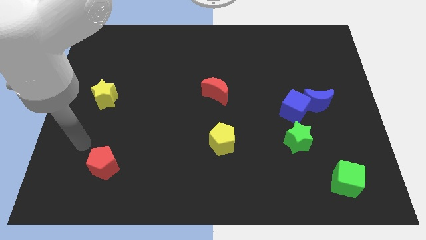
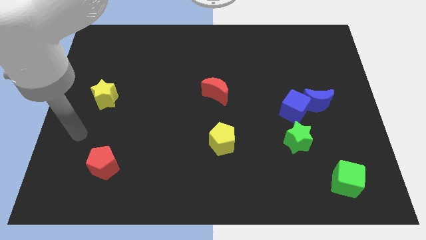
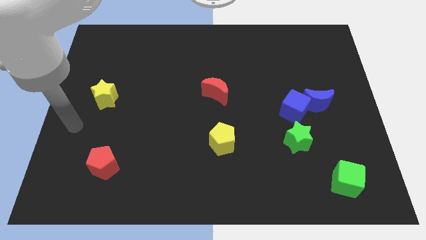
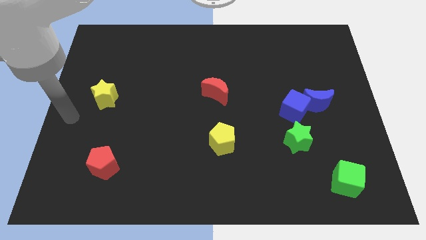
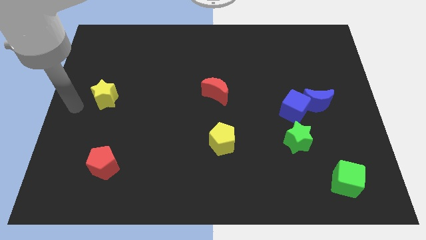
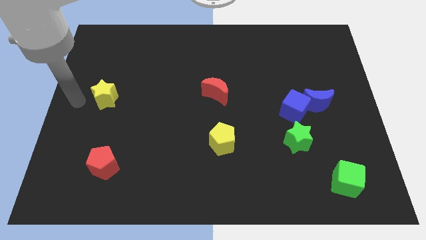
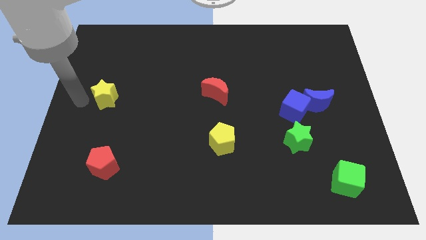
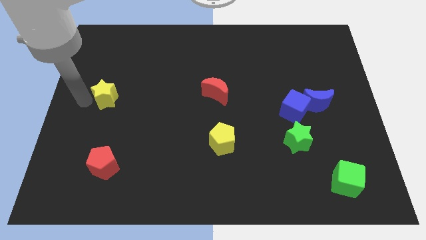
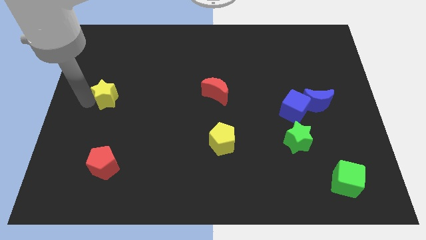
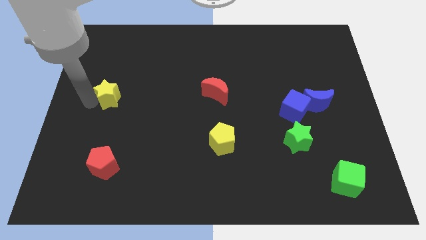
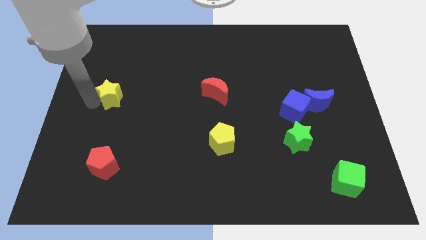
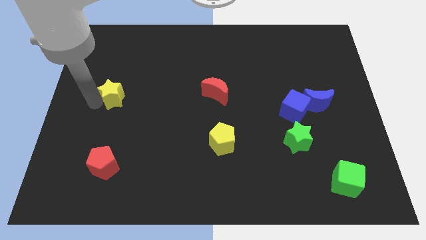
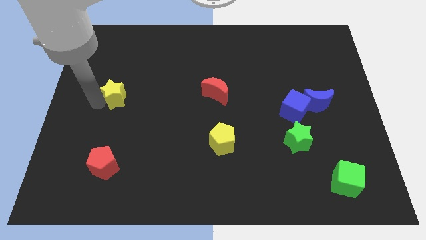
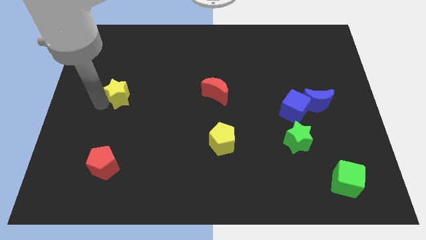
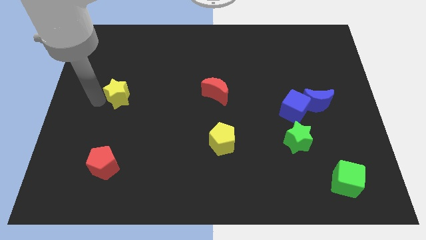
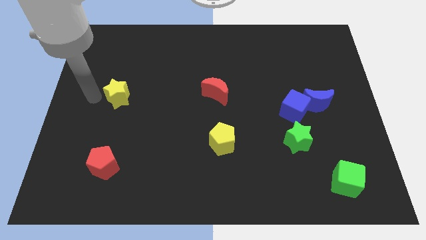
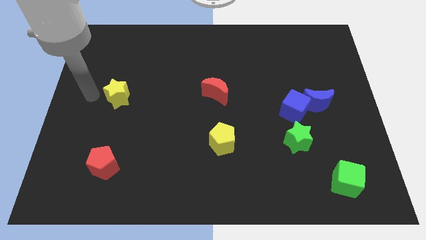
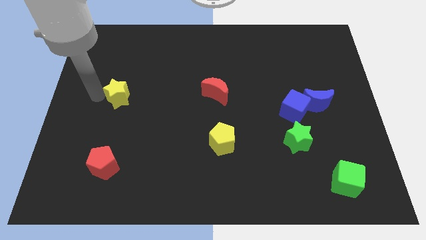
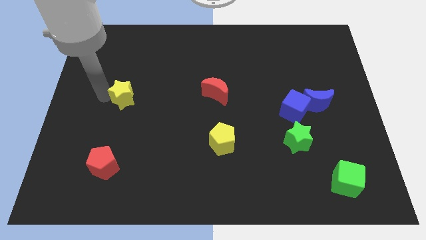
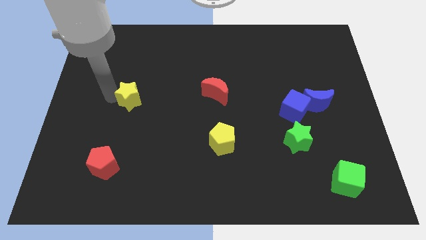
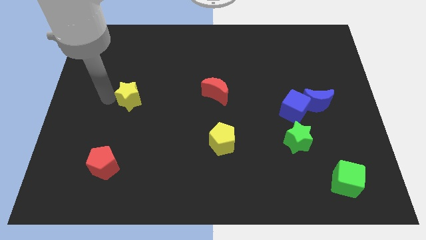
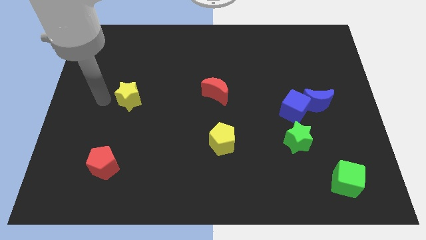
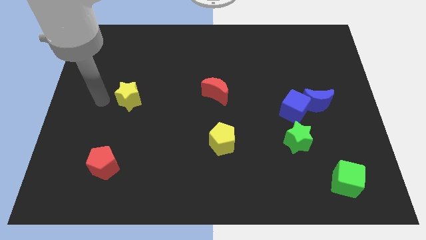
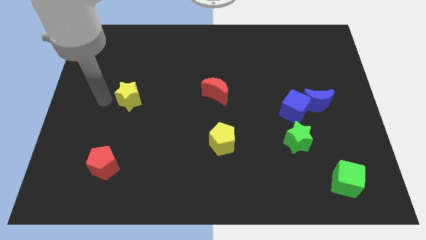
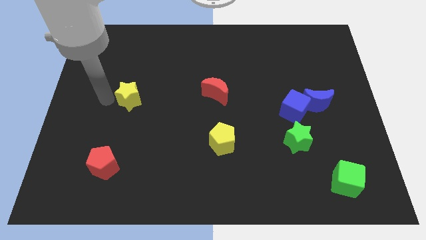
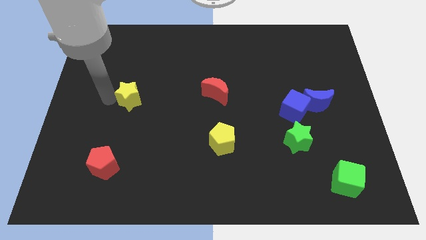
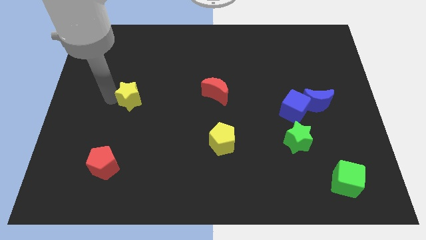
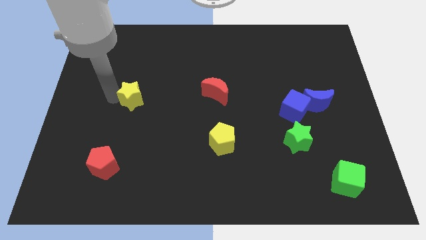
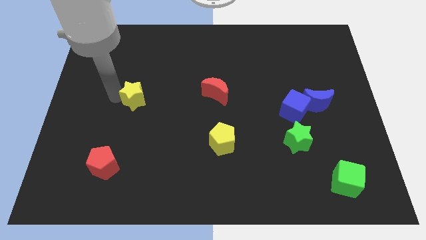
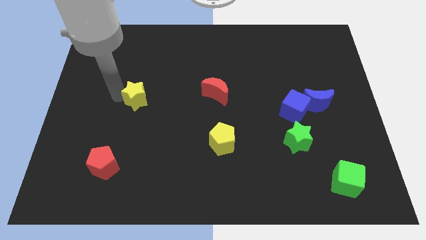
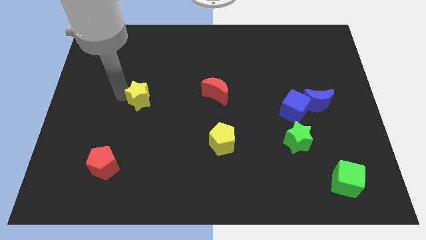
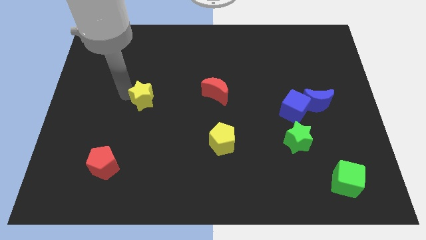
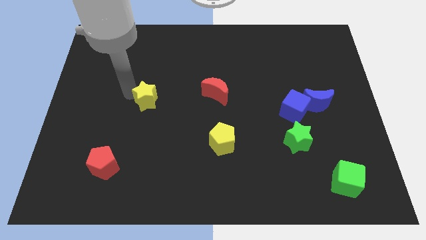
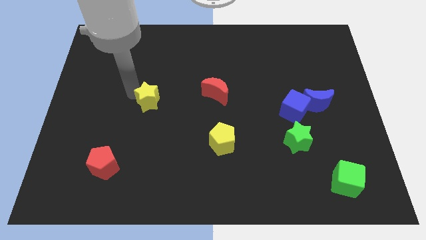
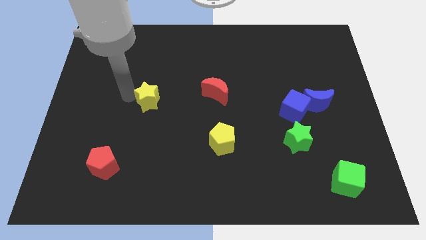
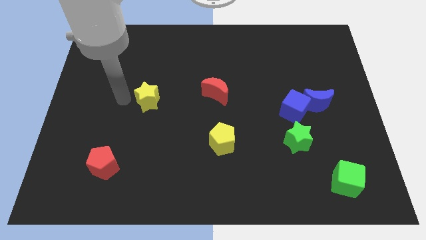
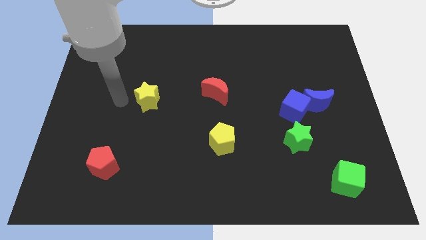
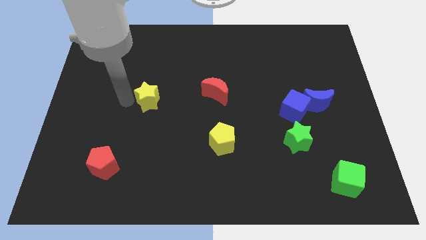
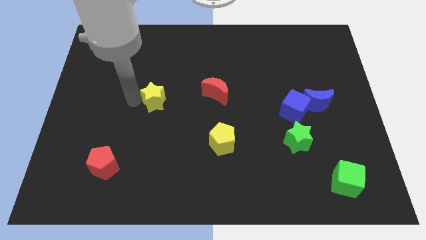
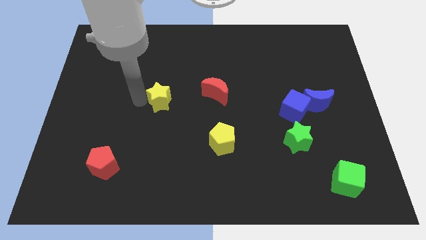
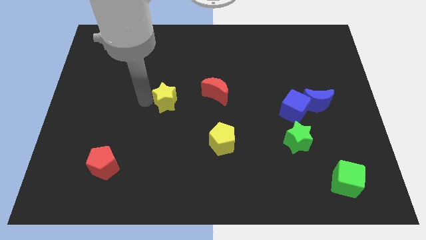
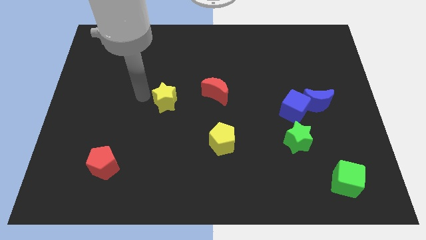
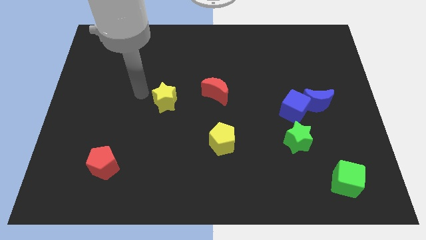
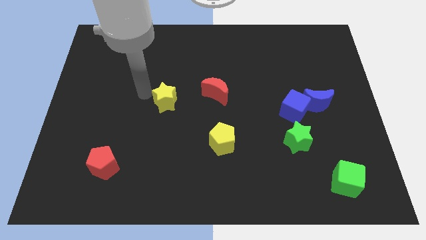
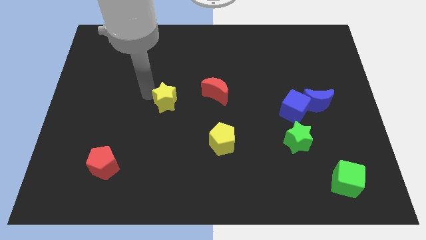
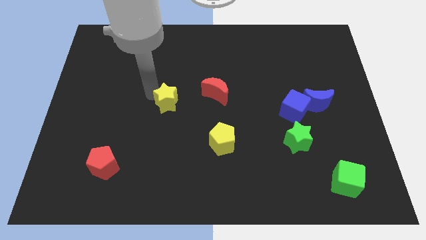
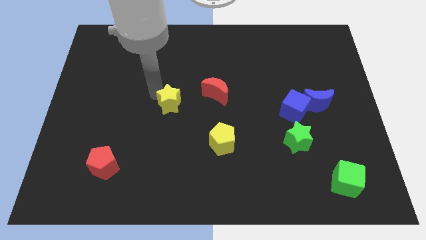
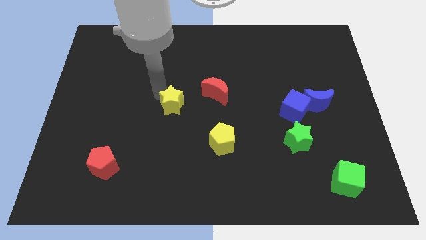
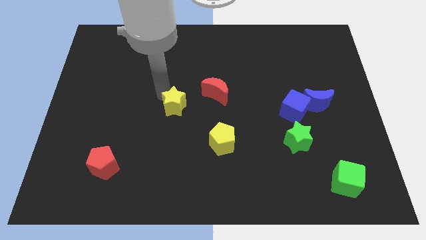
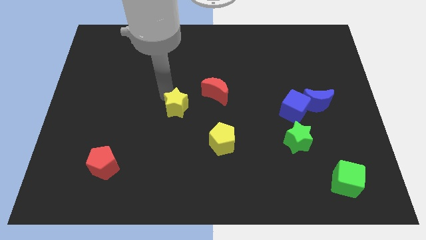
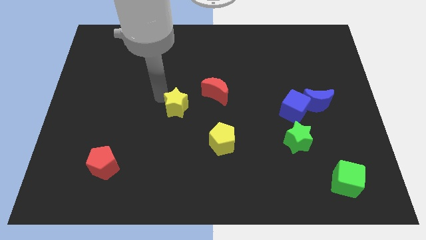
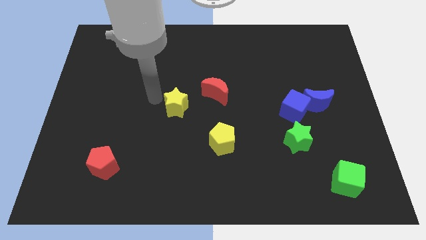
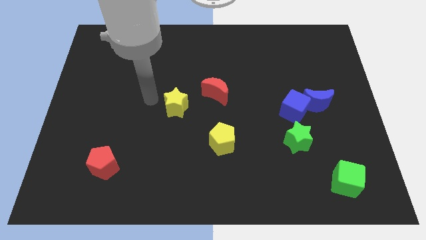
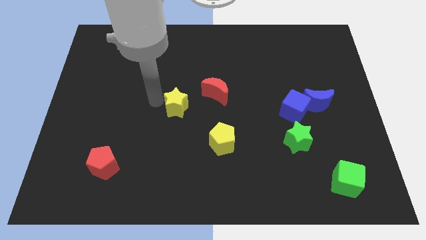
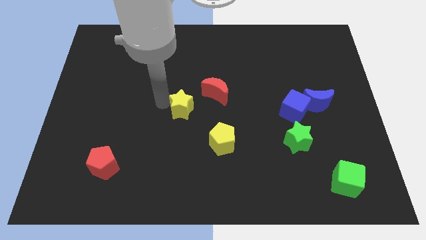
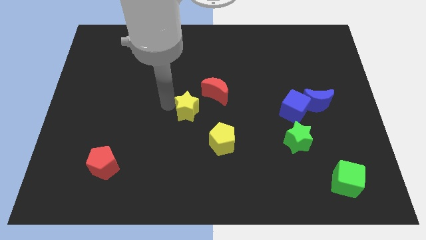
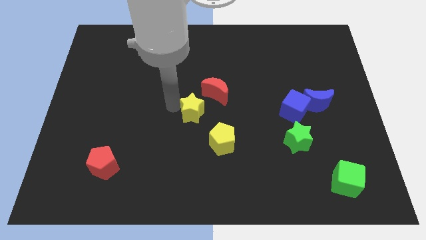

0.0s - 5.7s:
slide the yellow star to the right

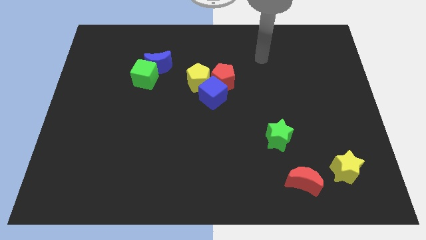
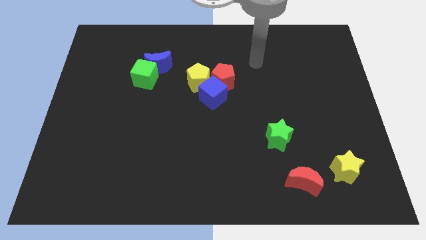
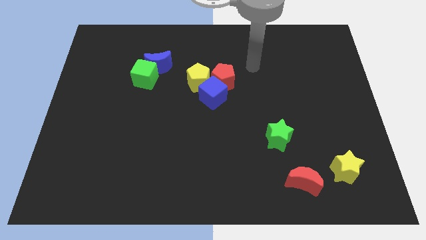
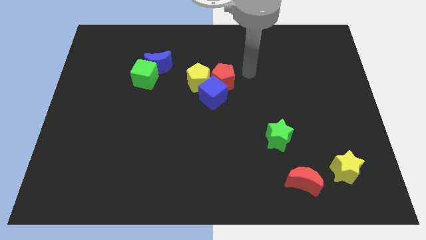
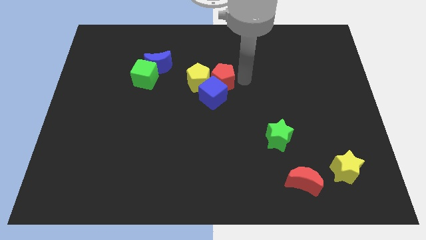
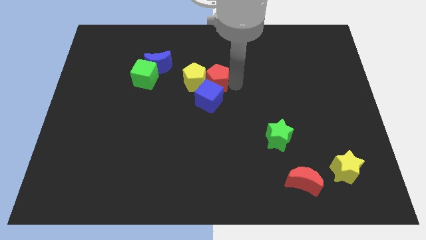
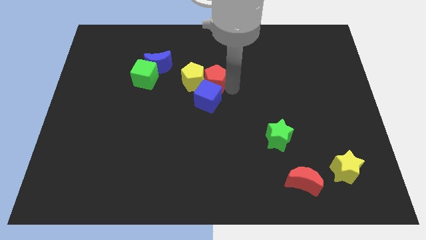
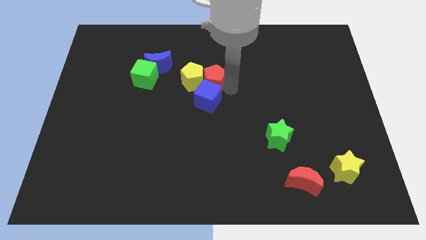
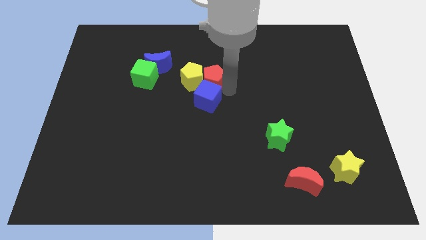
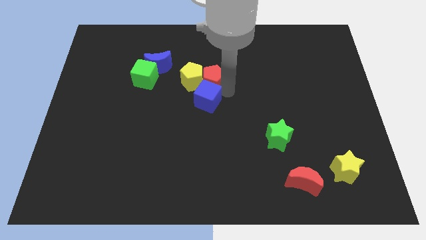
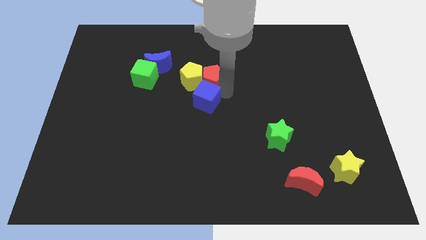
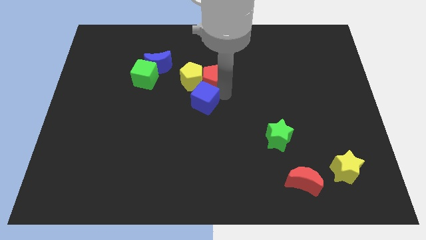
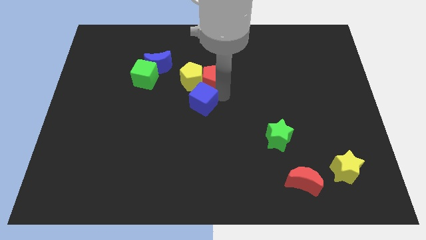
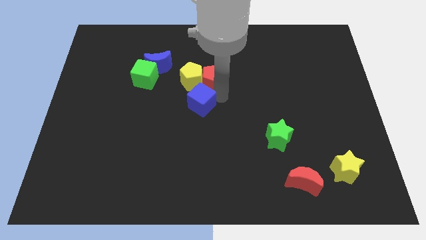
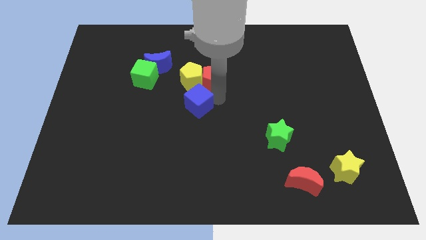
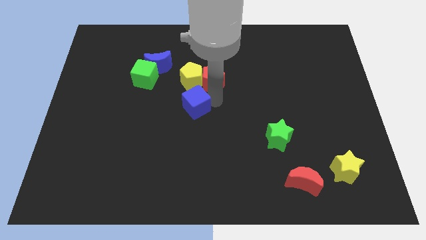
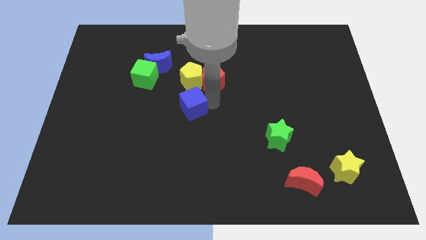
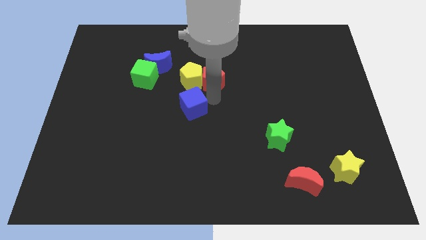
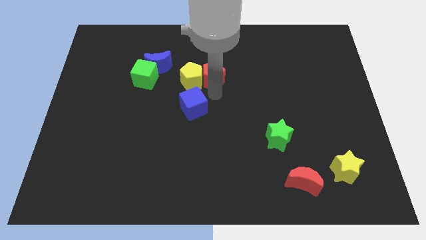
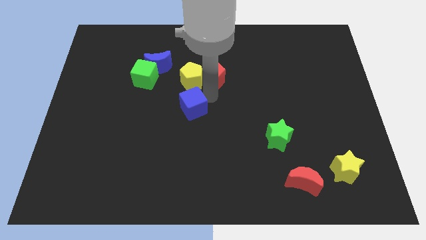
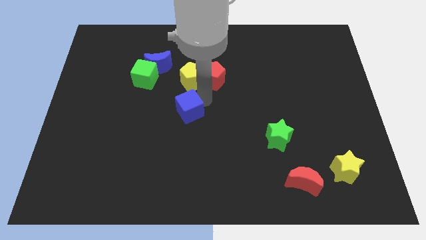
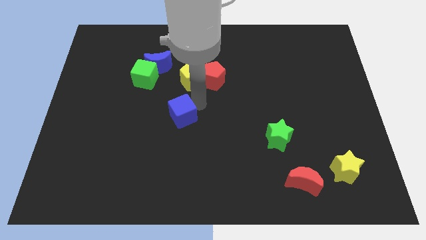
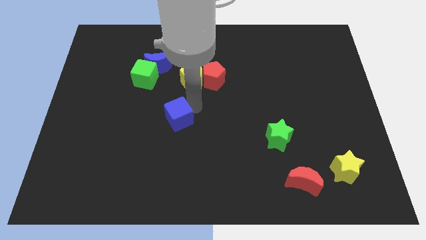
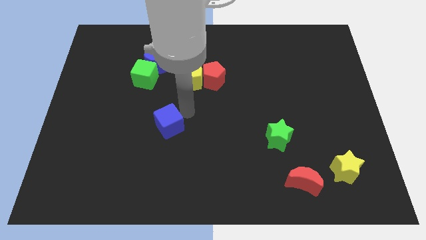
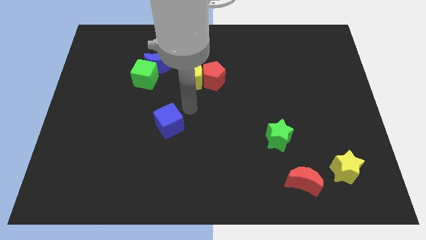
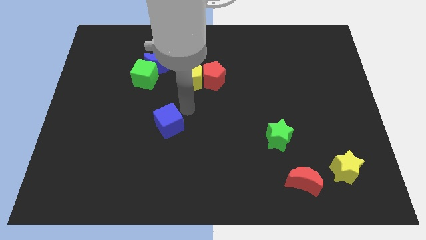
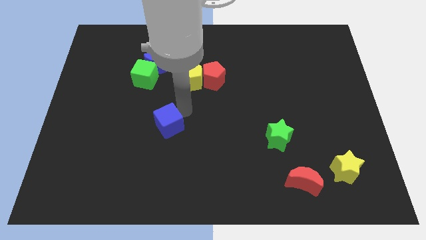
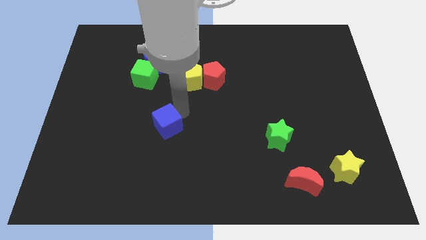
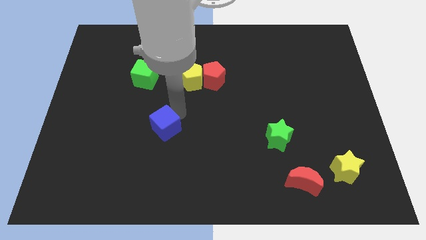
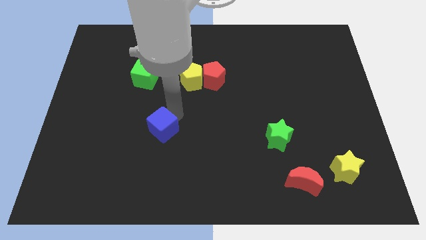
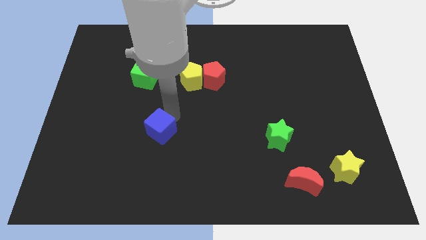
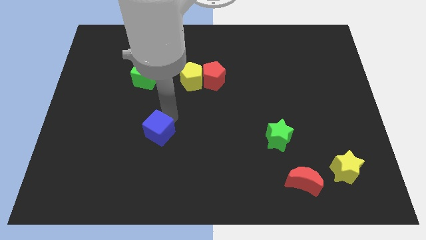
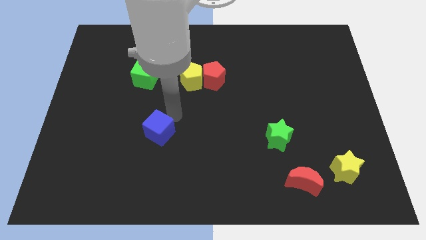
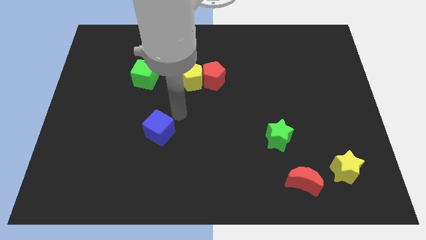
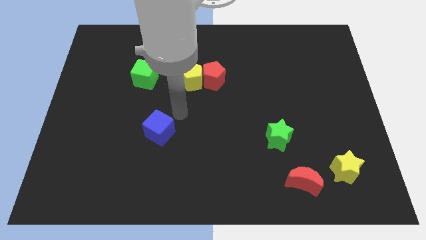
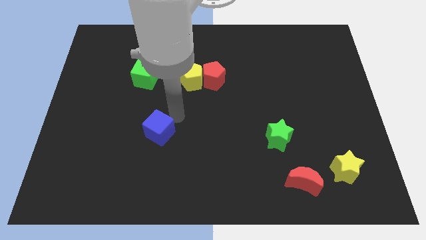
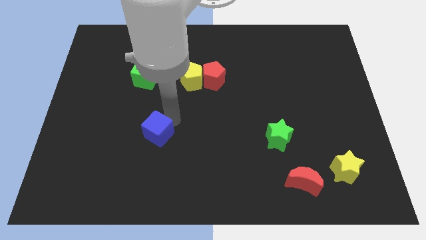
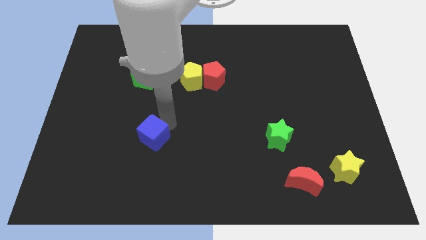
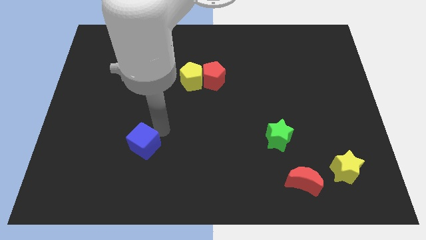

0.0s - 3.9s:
move the blue cube down and then to the left
